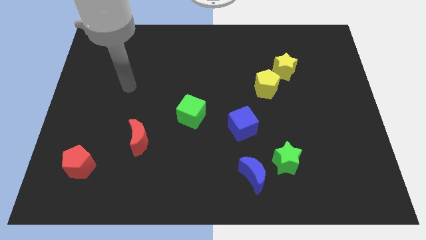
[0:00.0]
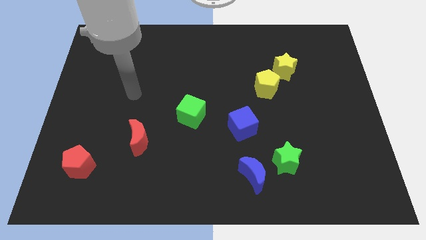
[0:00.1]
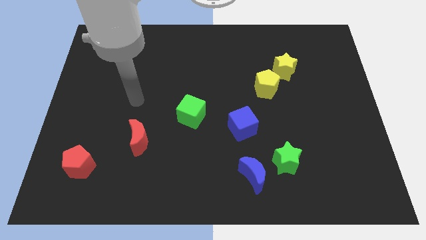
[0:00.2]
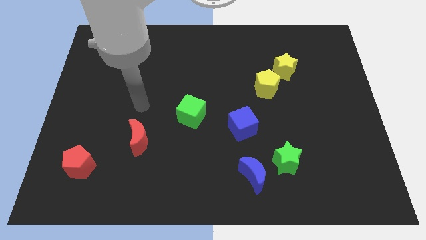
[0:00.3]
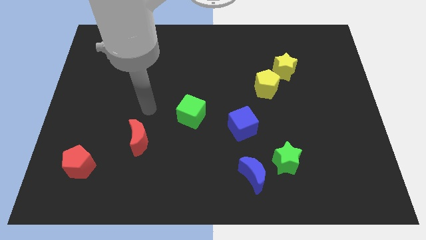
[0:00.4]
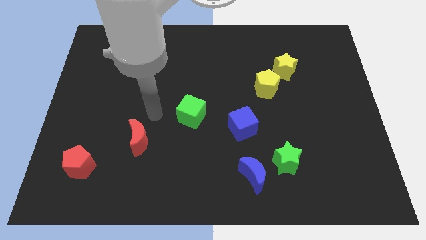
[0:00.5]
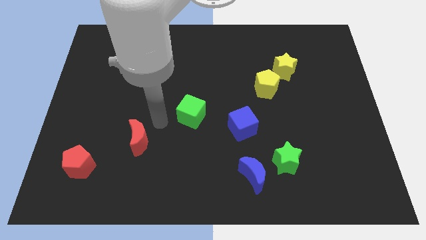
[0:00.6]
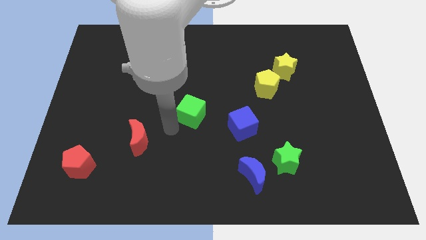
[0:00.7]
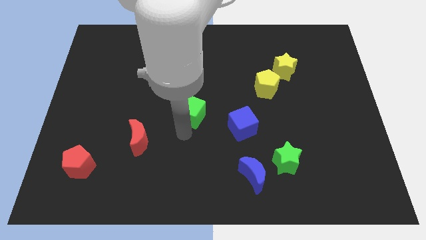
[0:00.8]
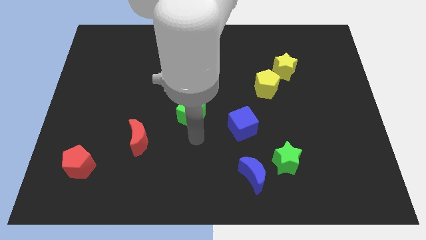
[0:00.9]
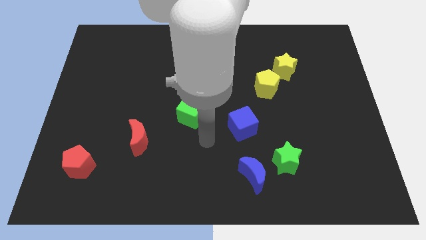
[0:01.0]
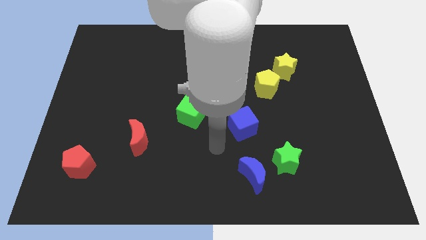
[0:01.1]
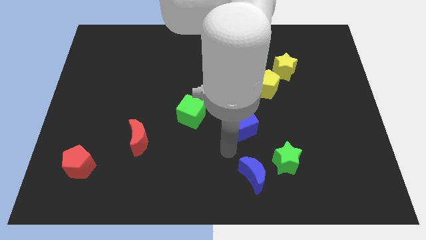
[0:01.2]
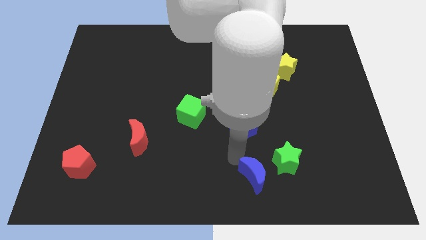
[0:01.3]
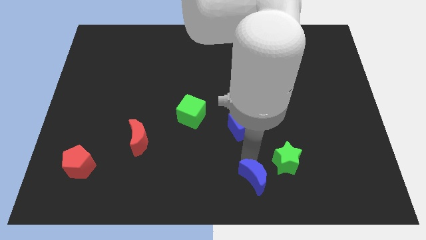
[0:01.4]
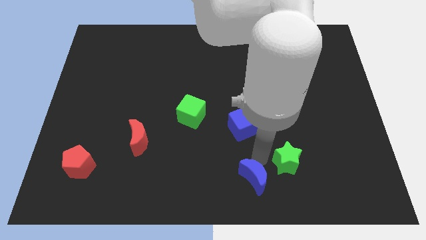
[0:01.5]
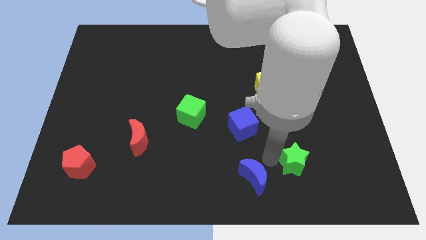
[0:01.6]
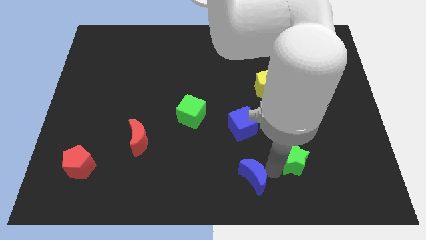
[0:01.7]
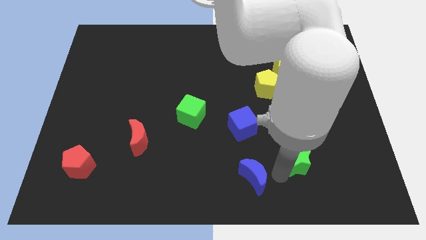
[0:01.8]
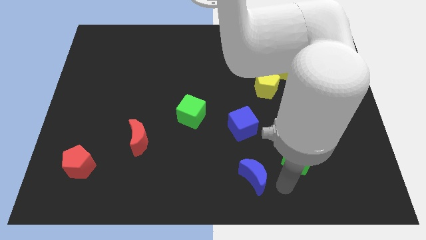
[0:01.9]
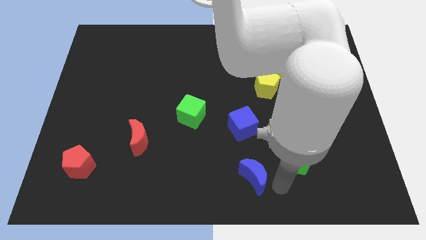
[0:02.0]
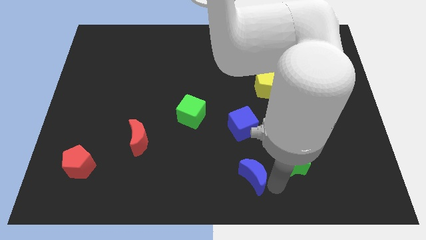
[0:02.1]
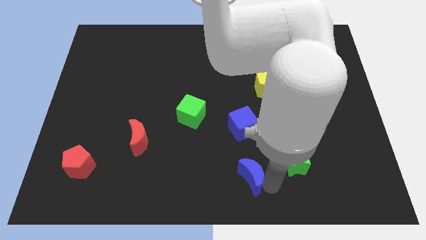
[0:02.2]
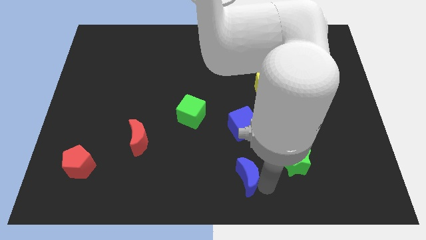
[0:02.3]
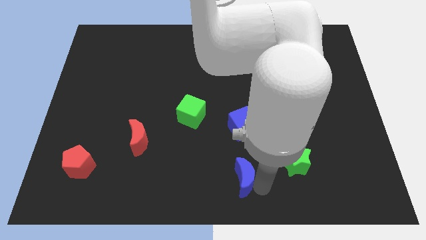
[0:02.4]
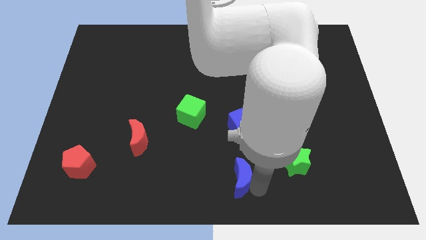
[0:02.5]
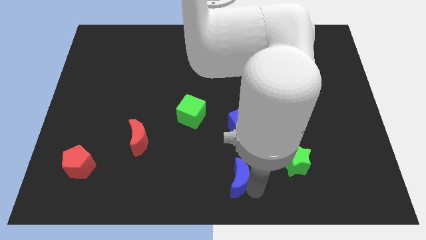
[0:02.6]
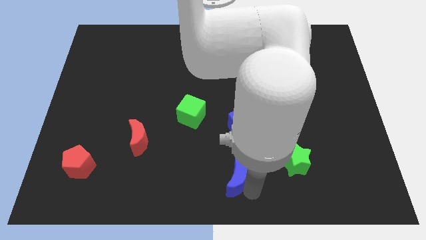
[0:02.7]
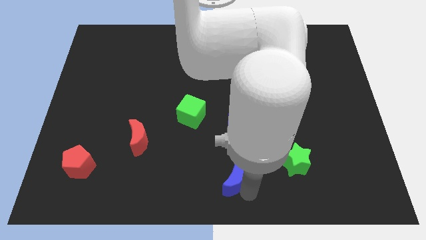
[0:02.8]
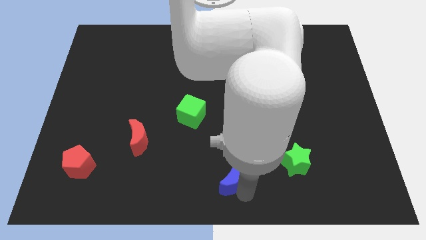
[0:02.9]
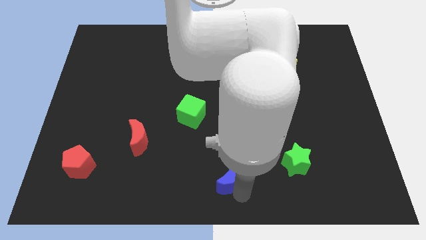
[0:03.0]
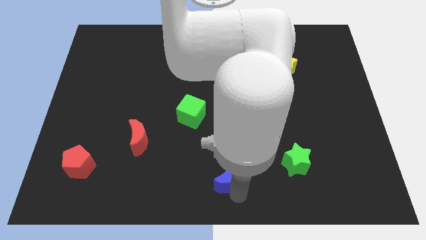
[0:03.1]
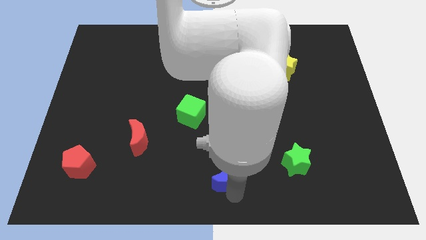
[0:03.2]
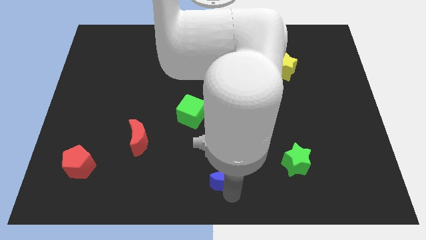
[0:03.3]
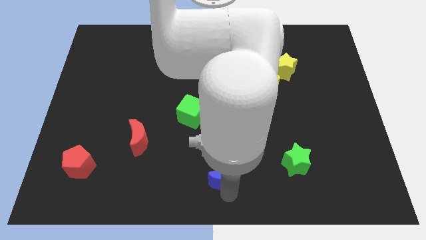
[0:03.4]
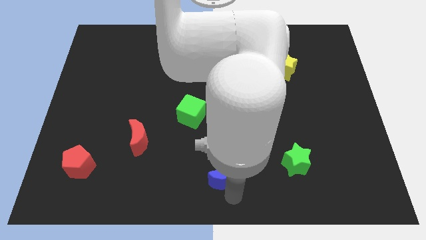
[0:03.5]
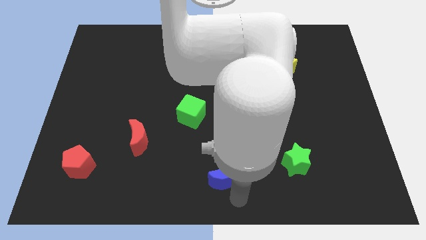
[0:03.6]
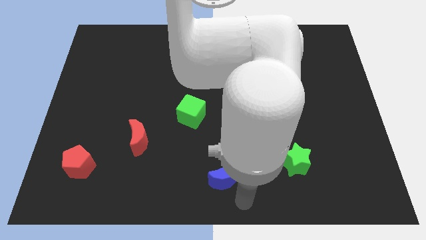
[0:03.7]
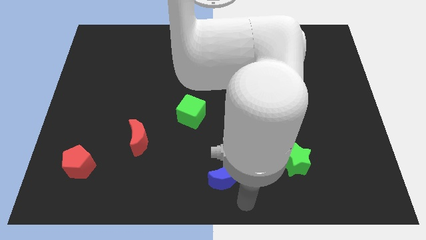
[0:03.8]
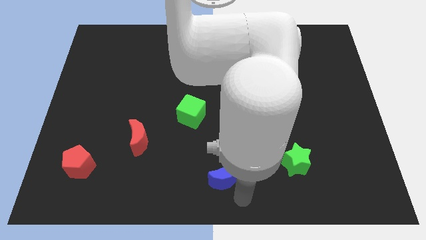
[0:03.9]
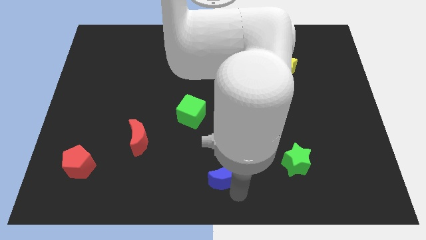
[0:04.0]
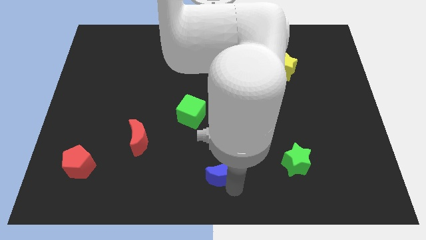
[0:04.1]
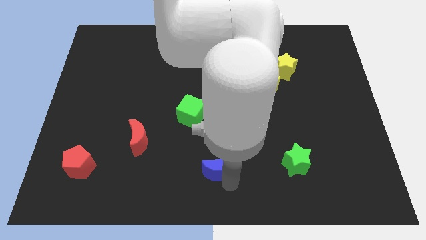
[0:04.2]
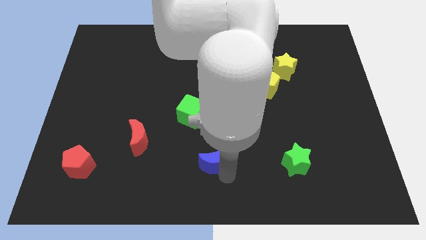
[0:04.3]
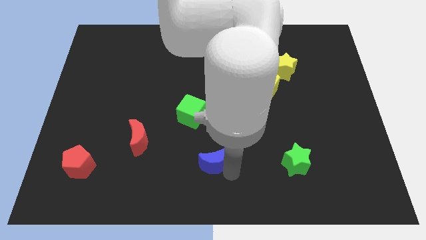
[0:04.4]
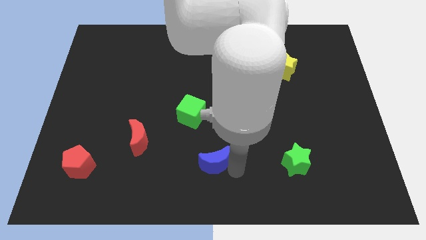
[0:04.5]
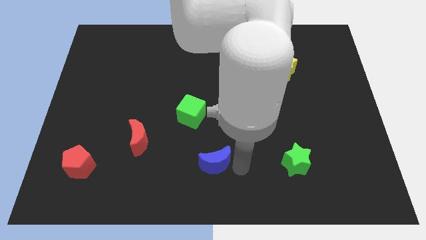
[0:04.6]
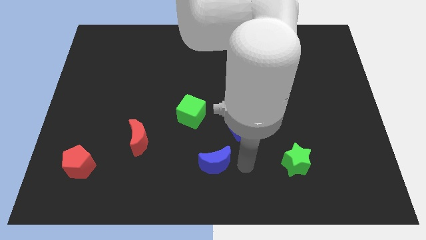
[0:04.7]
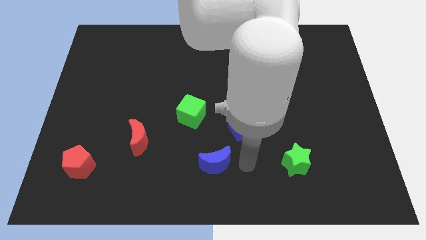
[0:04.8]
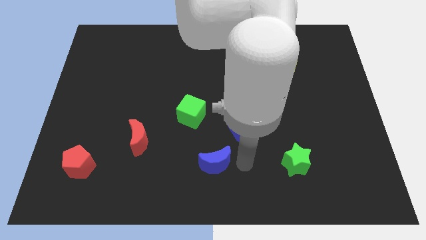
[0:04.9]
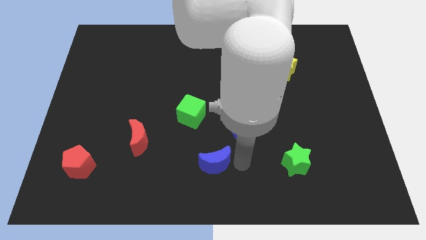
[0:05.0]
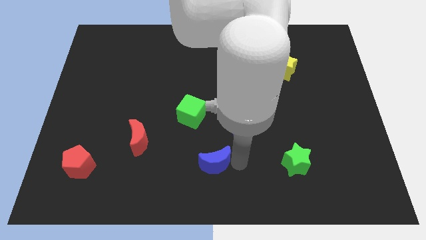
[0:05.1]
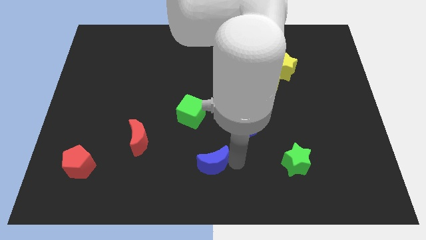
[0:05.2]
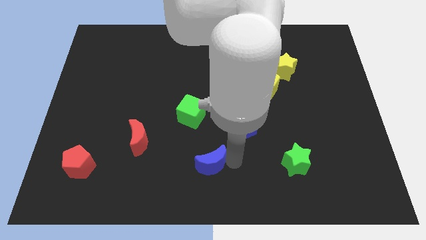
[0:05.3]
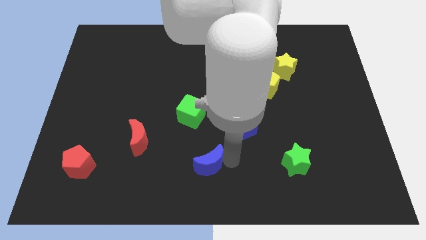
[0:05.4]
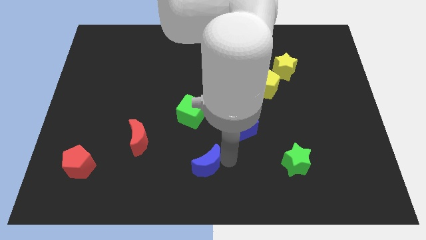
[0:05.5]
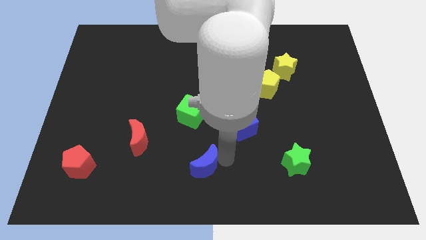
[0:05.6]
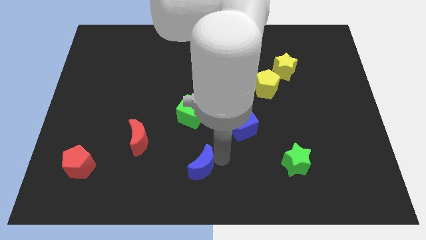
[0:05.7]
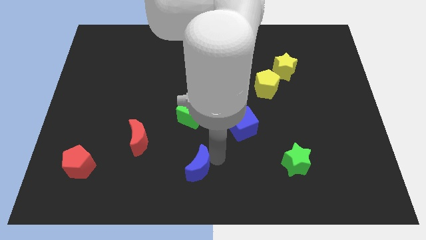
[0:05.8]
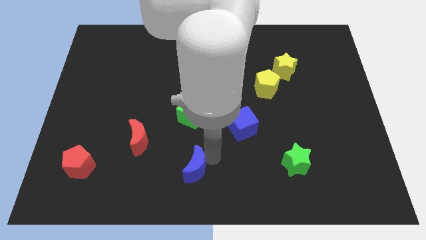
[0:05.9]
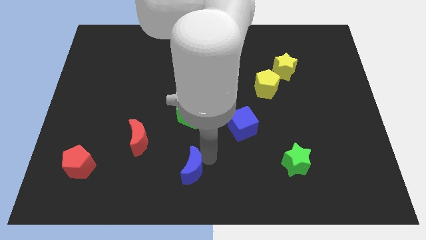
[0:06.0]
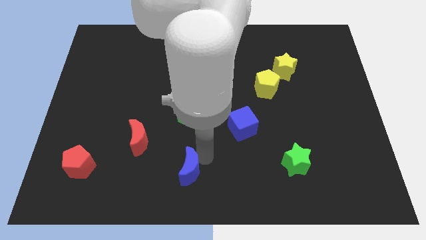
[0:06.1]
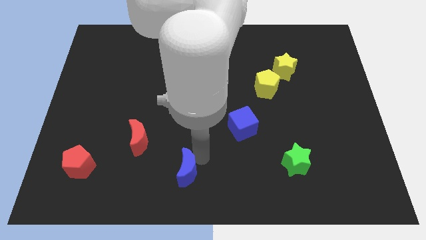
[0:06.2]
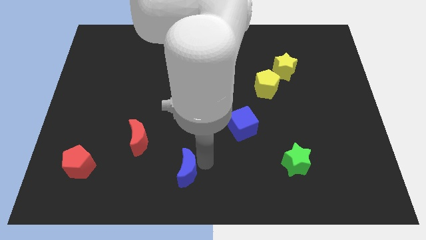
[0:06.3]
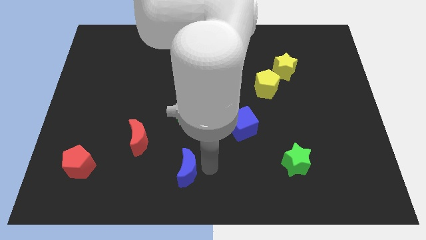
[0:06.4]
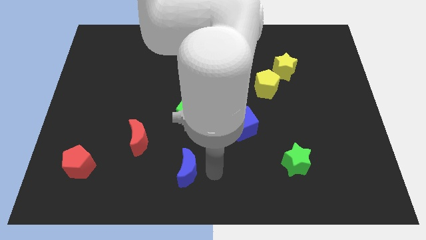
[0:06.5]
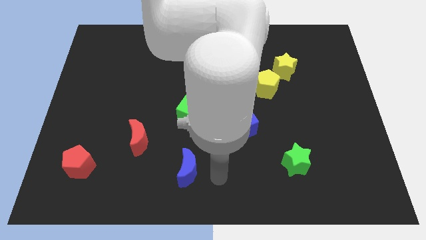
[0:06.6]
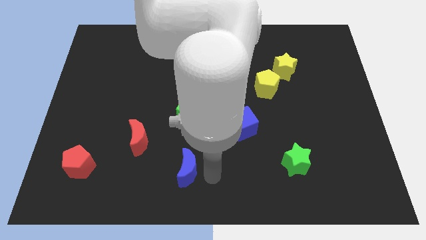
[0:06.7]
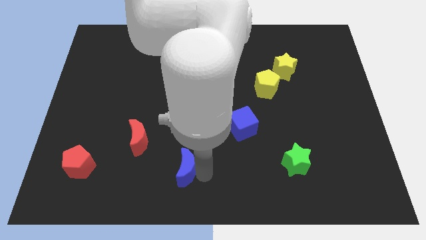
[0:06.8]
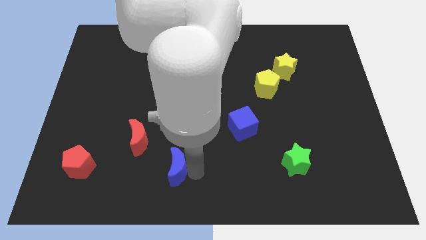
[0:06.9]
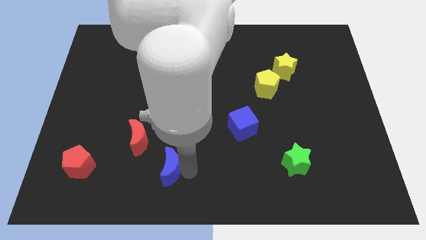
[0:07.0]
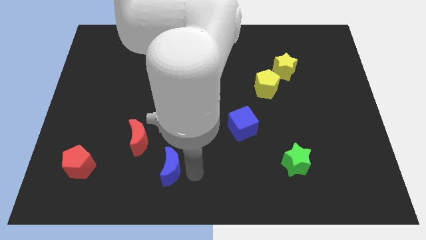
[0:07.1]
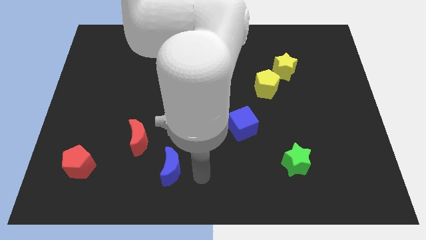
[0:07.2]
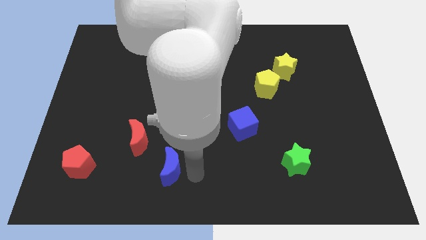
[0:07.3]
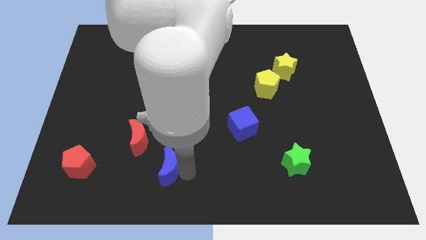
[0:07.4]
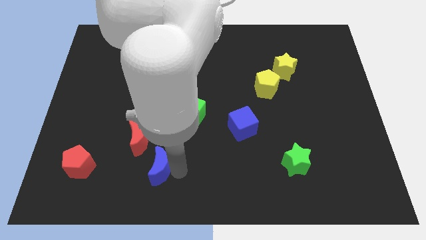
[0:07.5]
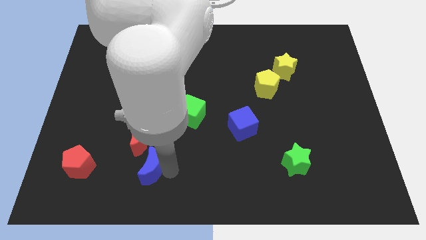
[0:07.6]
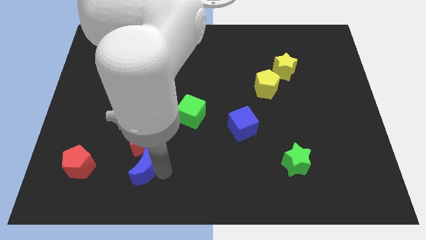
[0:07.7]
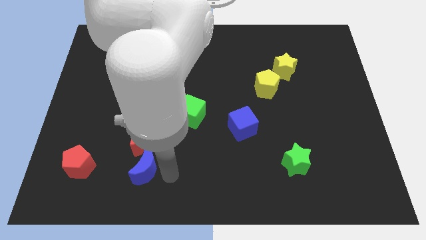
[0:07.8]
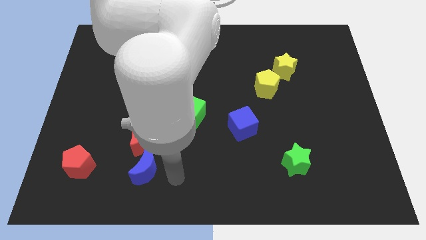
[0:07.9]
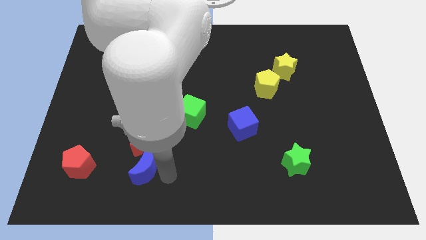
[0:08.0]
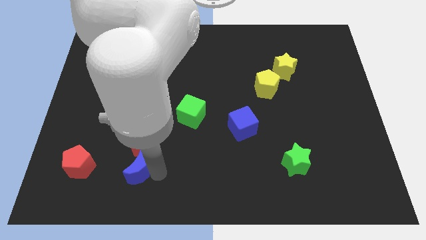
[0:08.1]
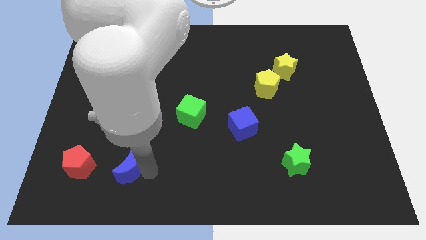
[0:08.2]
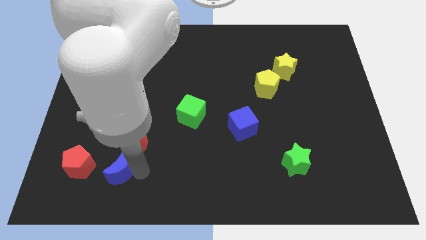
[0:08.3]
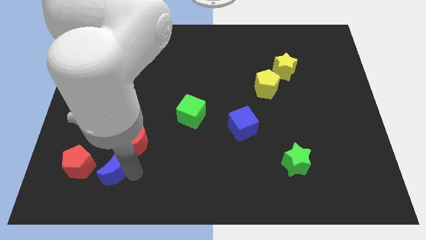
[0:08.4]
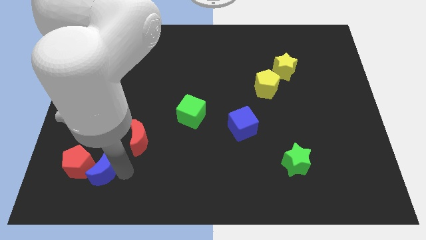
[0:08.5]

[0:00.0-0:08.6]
push the blue moon to the red pentagon
